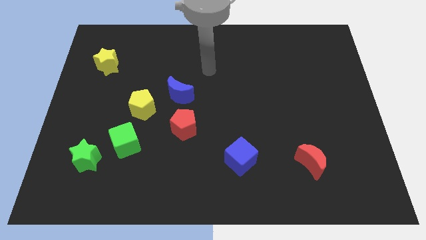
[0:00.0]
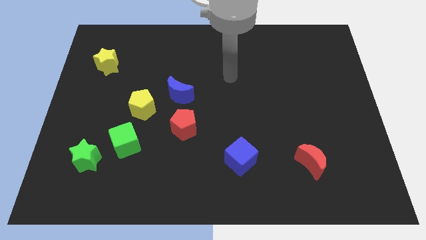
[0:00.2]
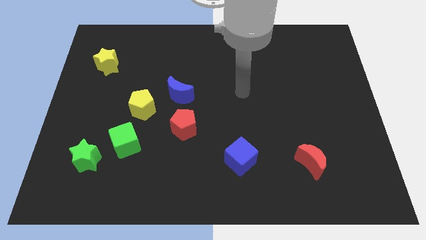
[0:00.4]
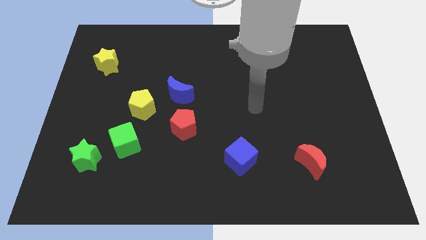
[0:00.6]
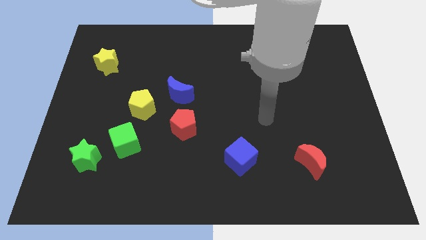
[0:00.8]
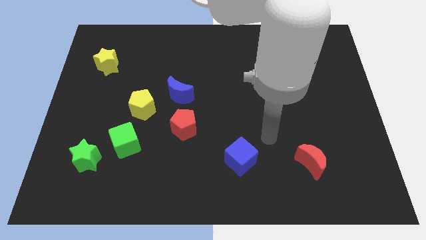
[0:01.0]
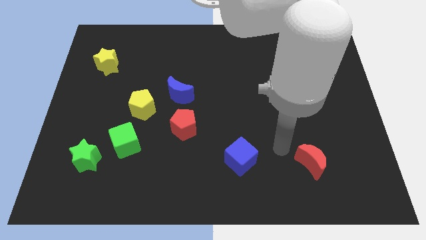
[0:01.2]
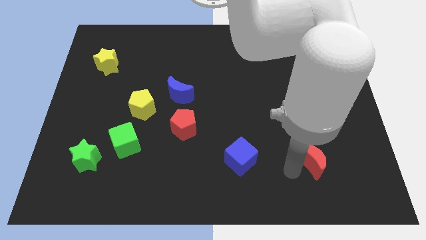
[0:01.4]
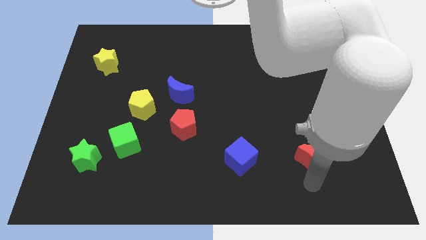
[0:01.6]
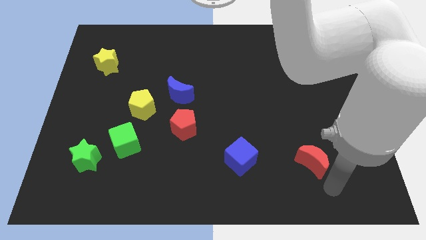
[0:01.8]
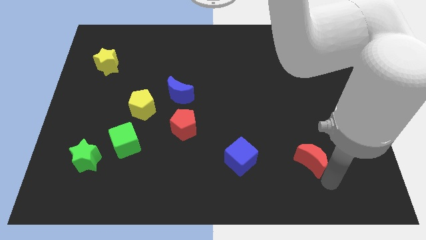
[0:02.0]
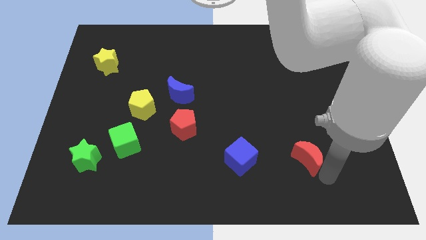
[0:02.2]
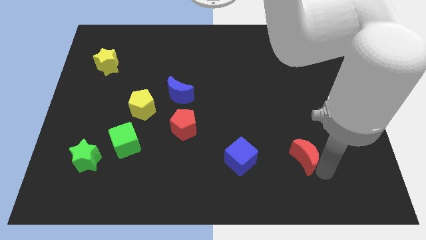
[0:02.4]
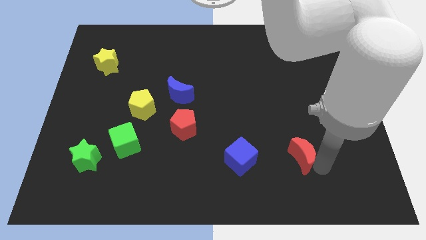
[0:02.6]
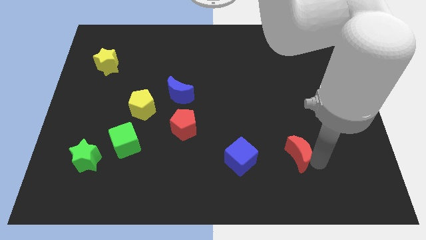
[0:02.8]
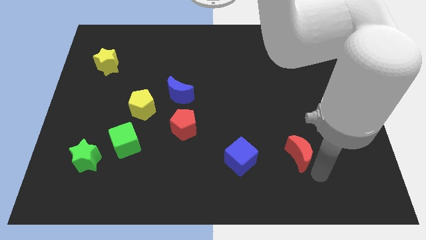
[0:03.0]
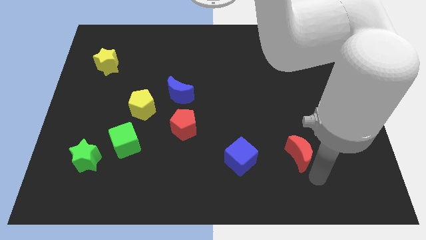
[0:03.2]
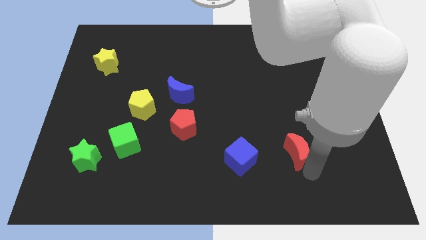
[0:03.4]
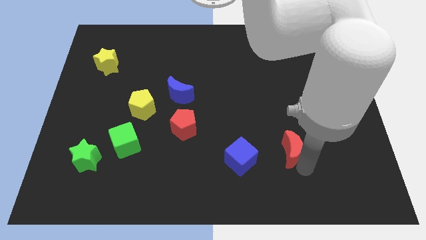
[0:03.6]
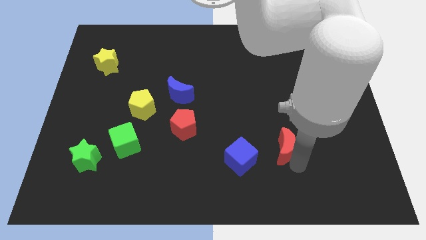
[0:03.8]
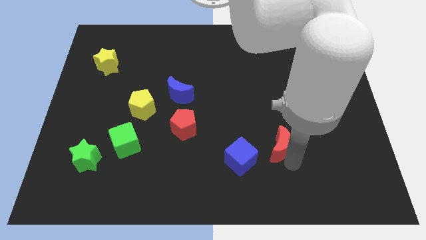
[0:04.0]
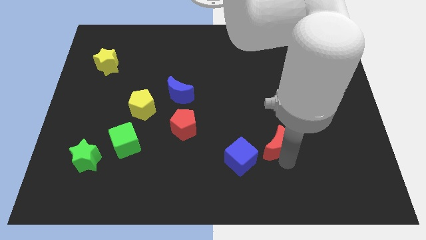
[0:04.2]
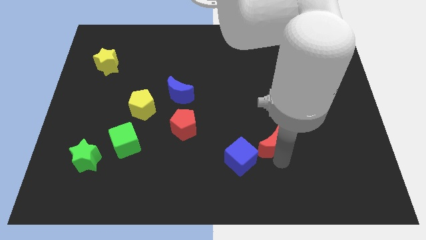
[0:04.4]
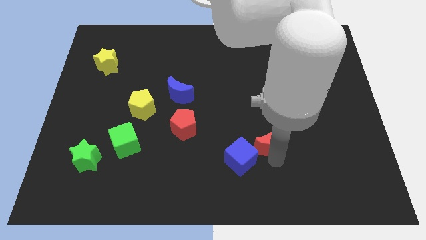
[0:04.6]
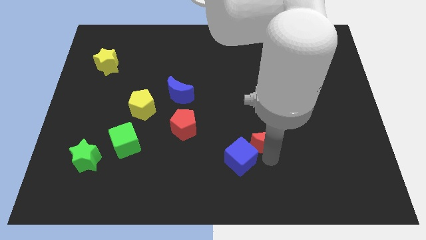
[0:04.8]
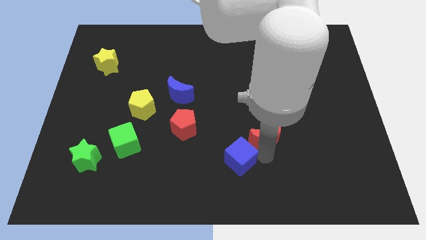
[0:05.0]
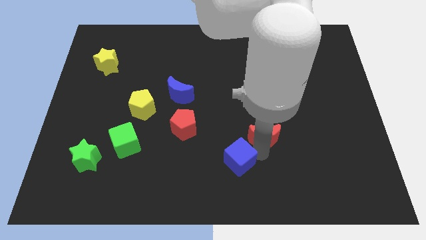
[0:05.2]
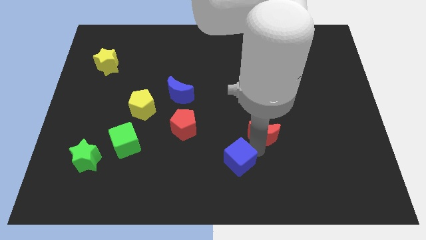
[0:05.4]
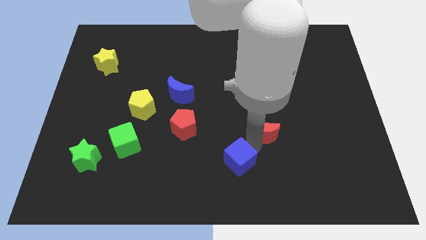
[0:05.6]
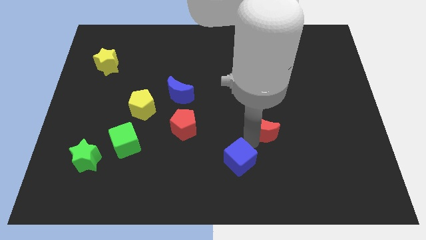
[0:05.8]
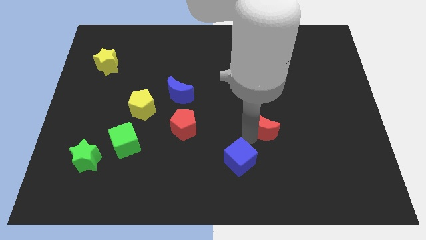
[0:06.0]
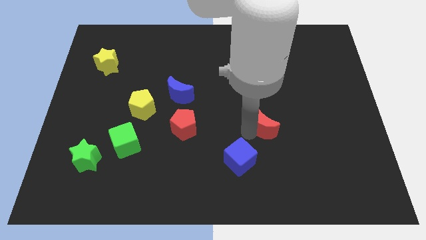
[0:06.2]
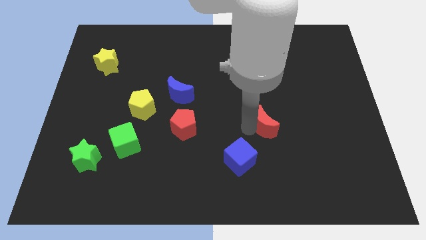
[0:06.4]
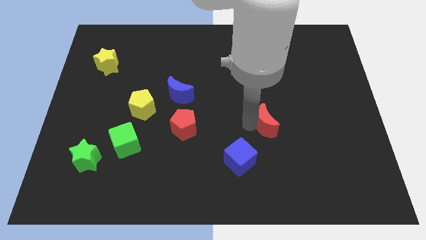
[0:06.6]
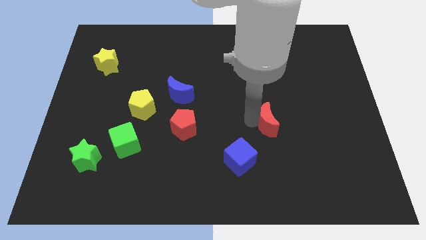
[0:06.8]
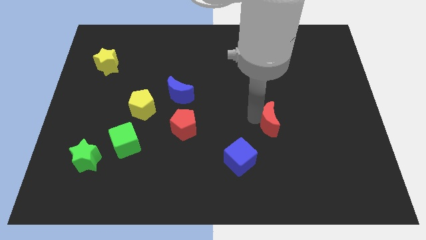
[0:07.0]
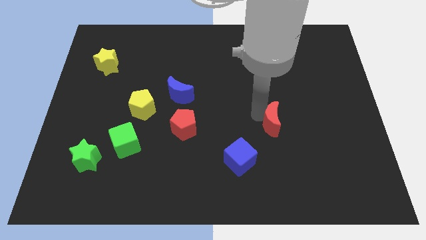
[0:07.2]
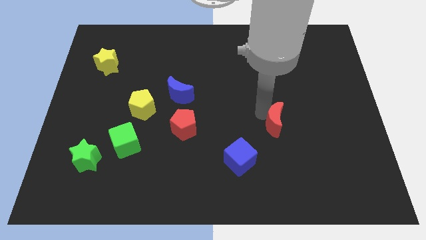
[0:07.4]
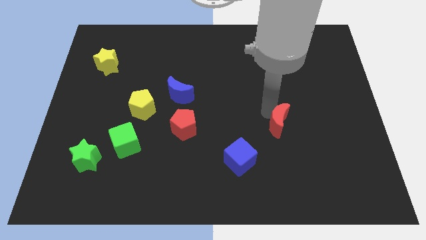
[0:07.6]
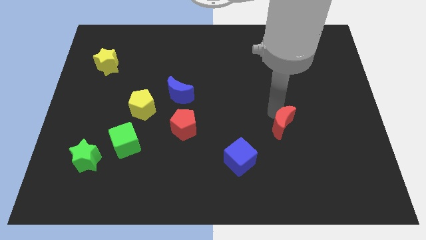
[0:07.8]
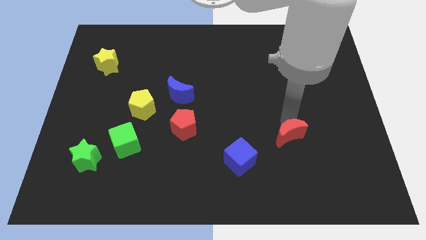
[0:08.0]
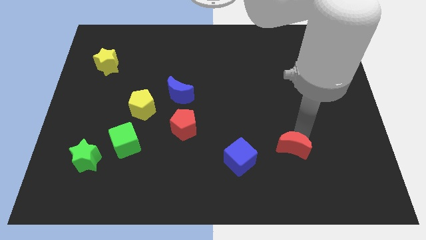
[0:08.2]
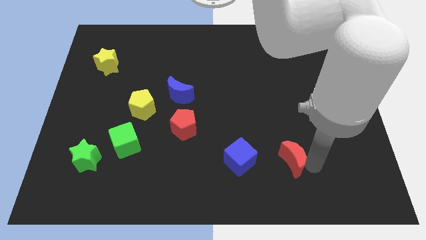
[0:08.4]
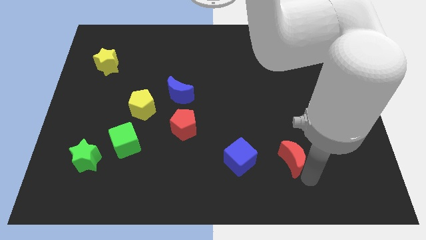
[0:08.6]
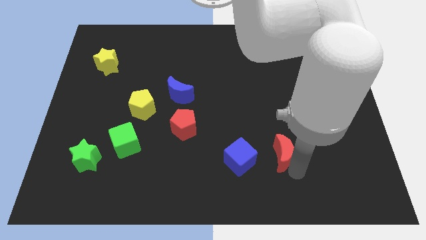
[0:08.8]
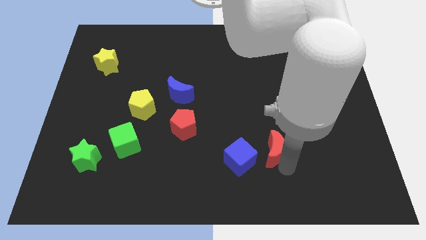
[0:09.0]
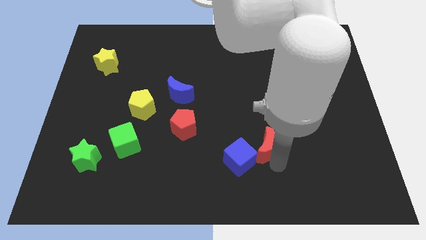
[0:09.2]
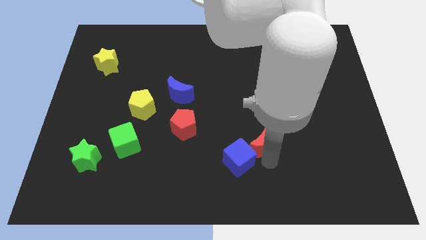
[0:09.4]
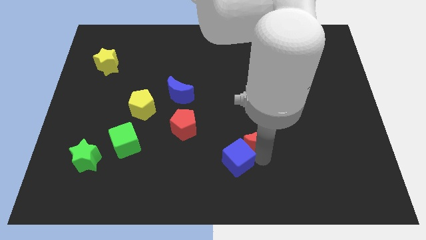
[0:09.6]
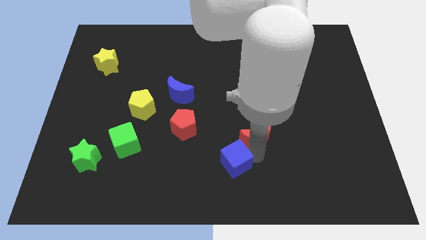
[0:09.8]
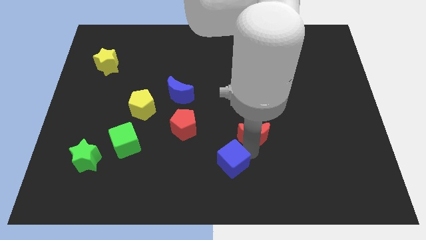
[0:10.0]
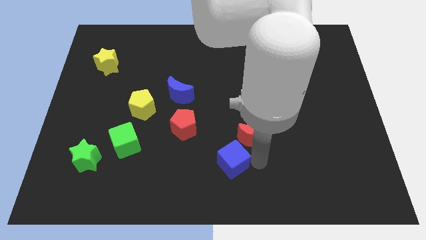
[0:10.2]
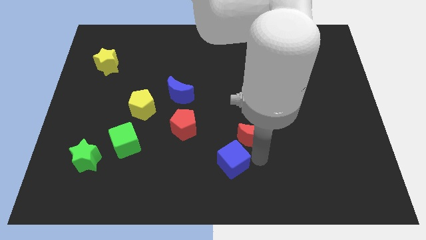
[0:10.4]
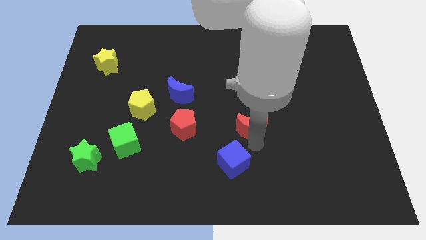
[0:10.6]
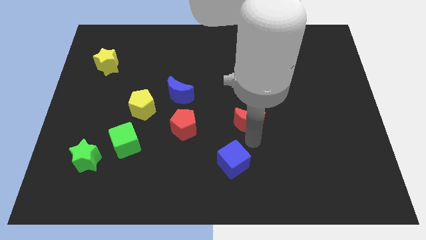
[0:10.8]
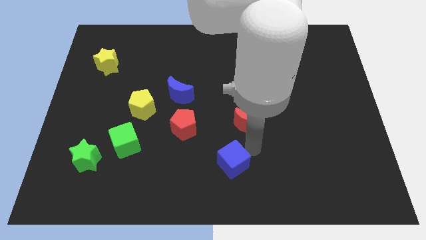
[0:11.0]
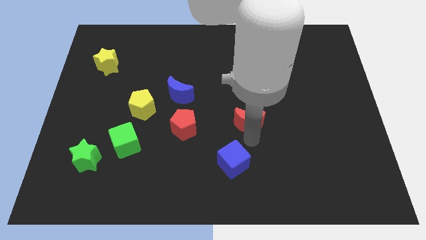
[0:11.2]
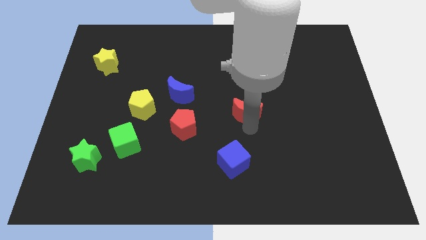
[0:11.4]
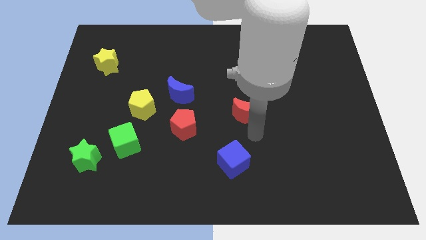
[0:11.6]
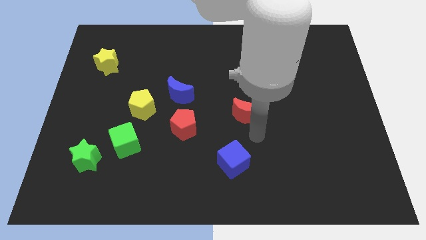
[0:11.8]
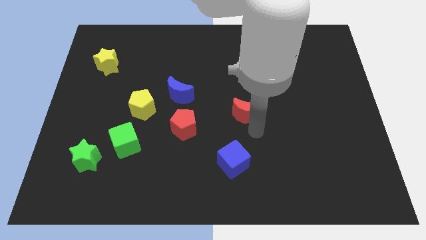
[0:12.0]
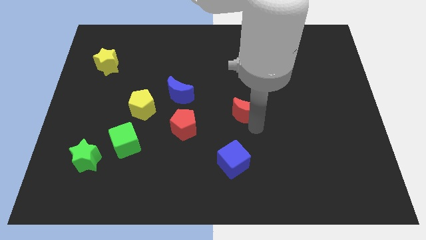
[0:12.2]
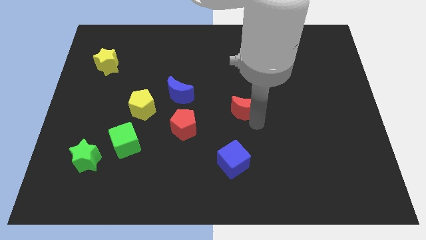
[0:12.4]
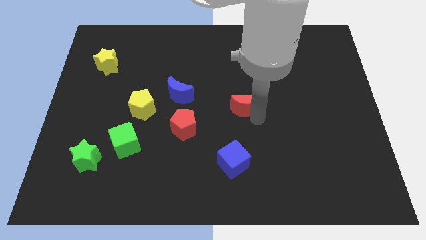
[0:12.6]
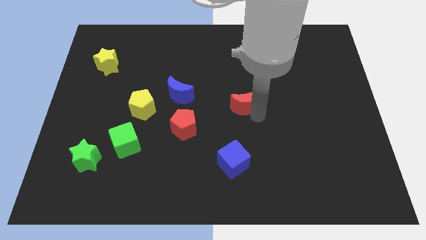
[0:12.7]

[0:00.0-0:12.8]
slide the red moon up and to the left diagonally

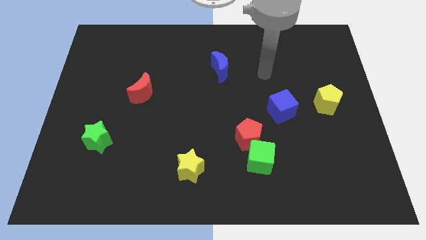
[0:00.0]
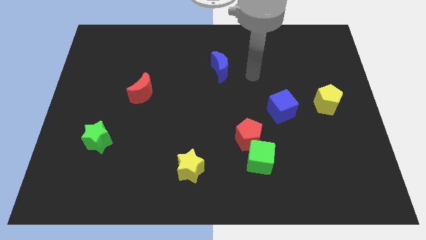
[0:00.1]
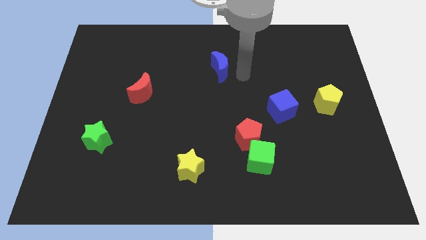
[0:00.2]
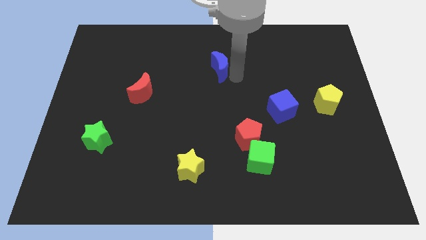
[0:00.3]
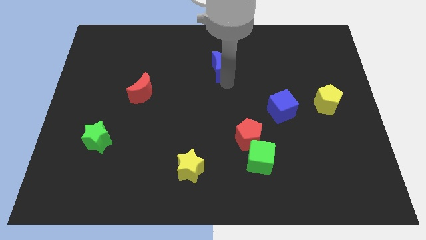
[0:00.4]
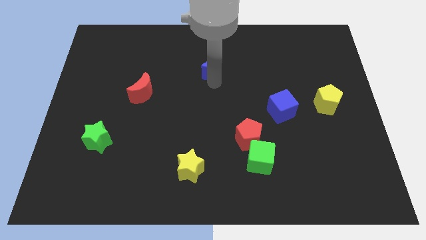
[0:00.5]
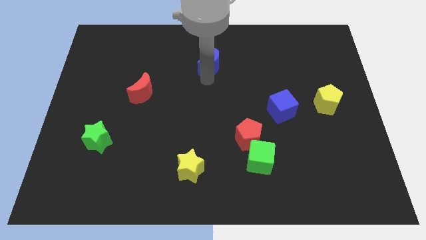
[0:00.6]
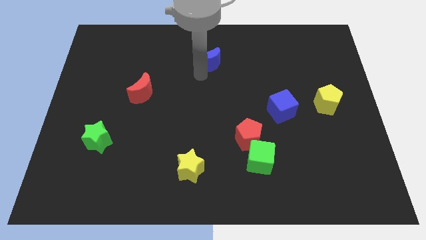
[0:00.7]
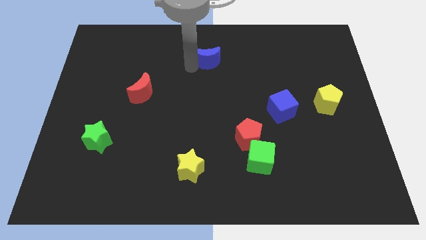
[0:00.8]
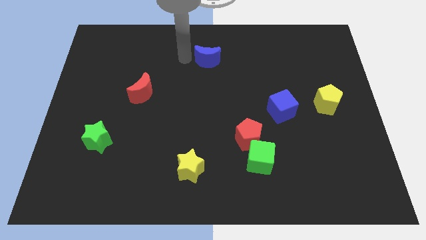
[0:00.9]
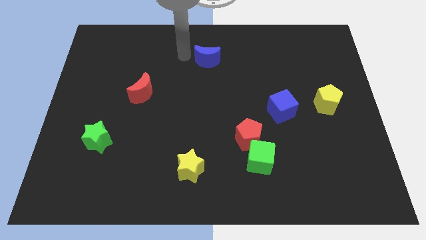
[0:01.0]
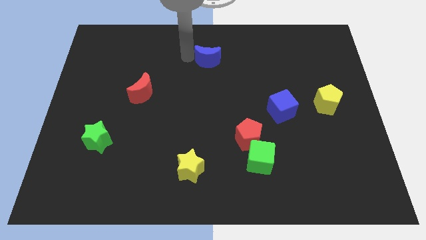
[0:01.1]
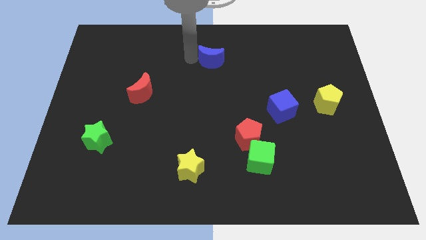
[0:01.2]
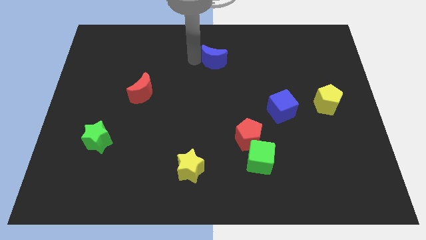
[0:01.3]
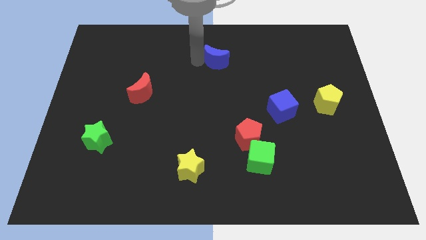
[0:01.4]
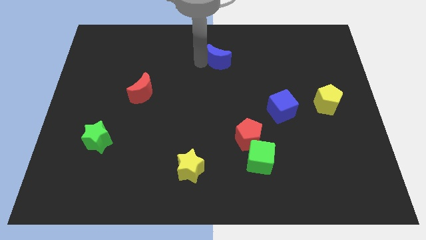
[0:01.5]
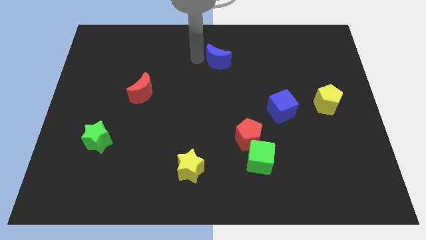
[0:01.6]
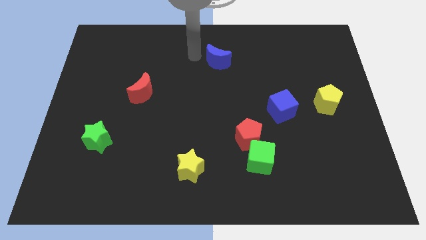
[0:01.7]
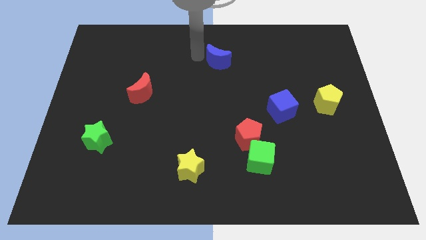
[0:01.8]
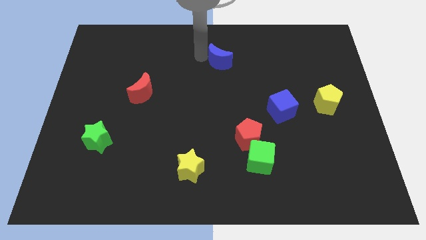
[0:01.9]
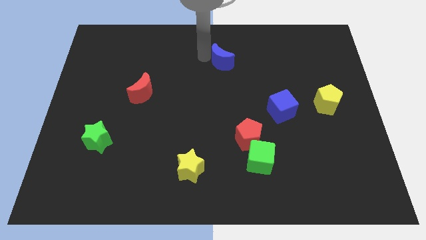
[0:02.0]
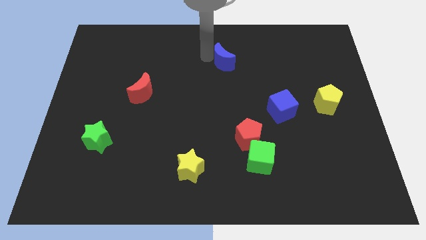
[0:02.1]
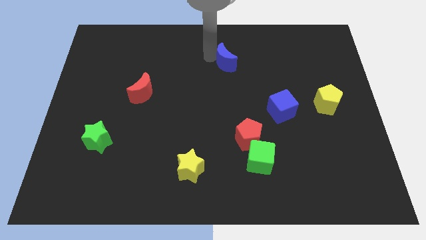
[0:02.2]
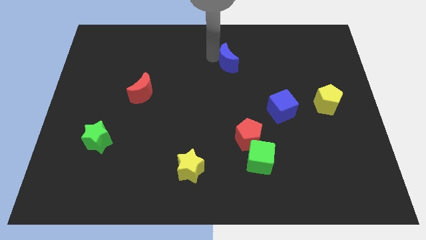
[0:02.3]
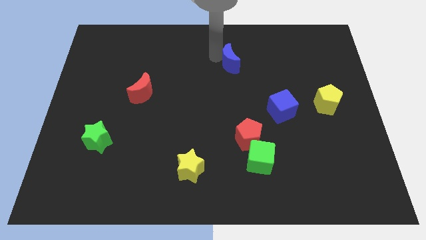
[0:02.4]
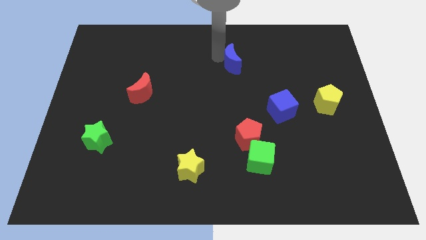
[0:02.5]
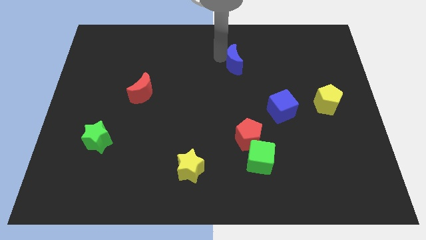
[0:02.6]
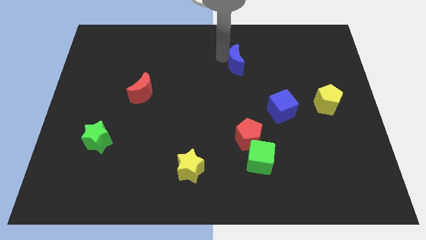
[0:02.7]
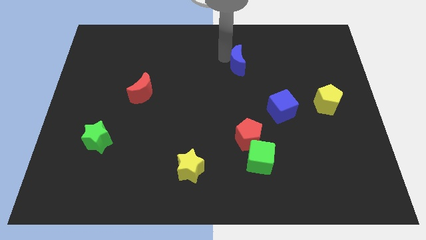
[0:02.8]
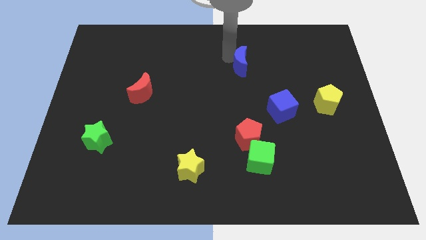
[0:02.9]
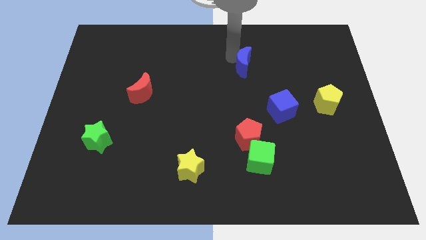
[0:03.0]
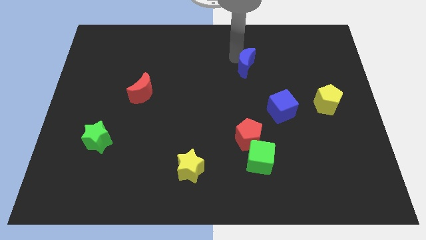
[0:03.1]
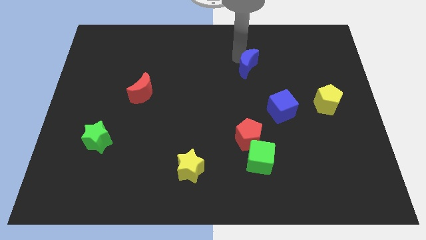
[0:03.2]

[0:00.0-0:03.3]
slightly push the blue moon right
